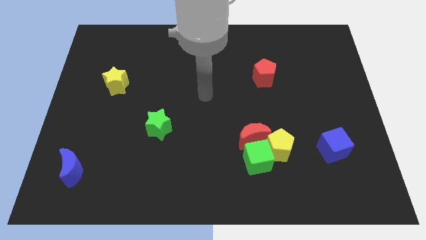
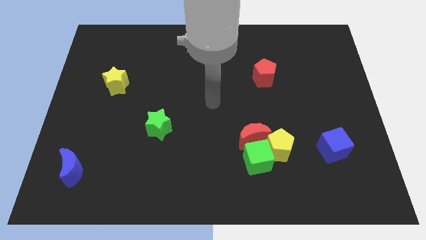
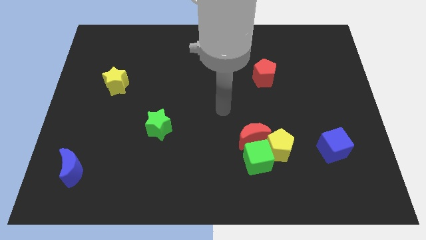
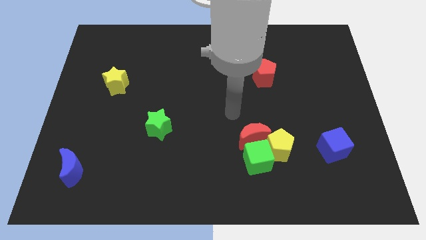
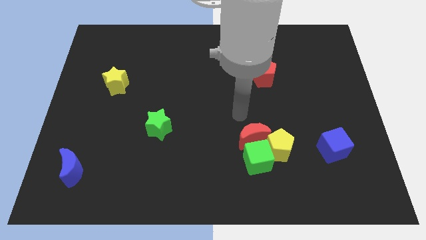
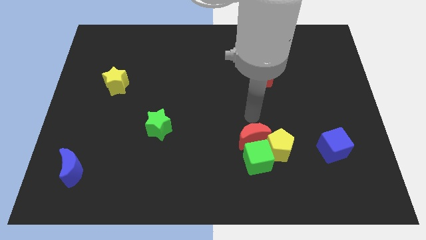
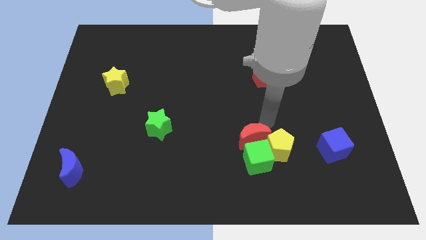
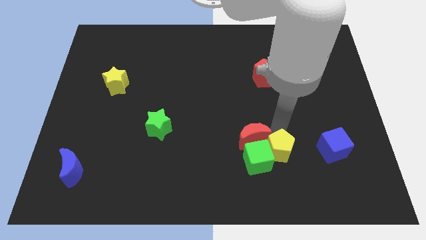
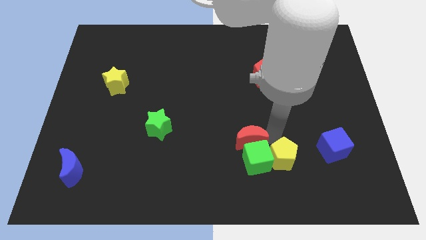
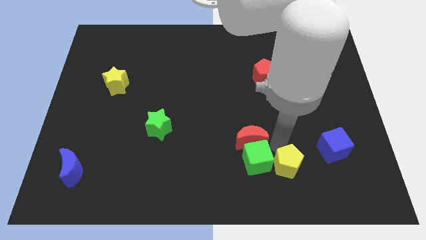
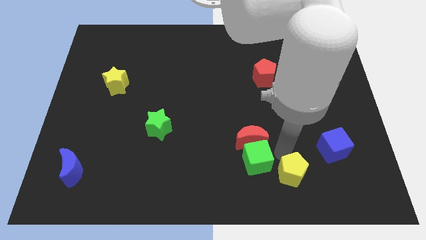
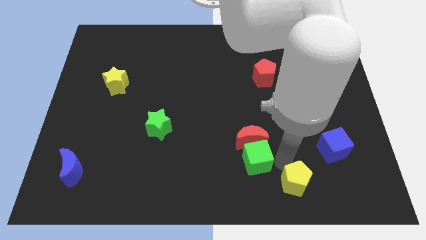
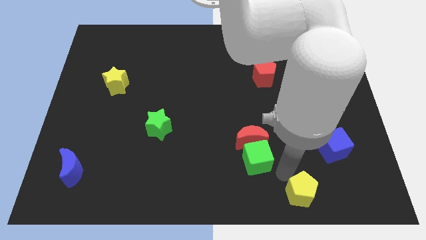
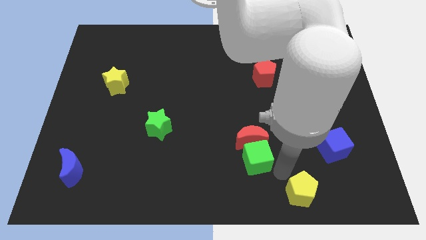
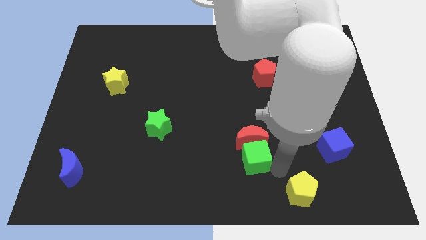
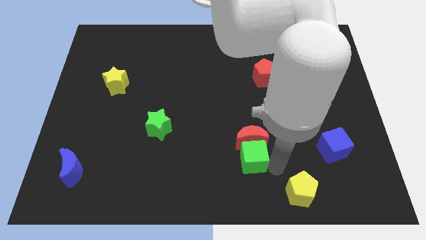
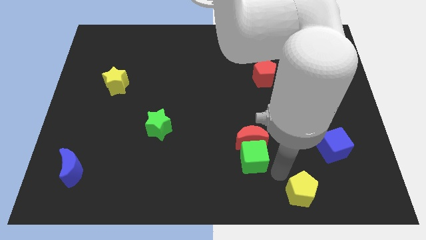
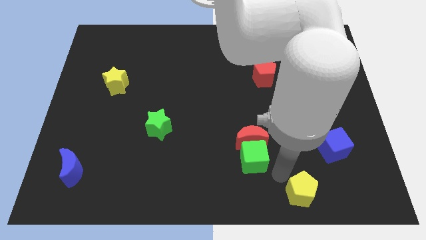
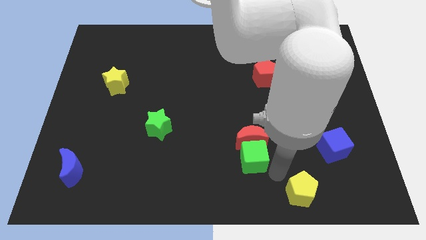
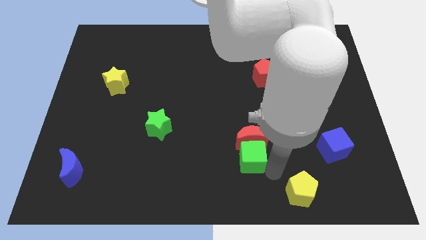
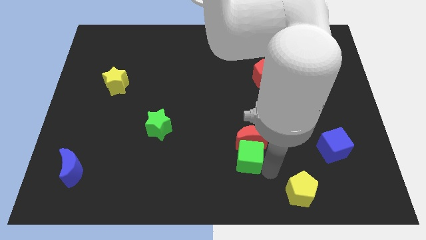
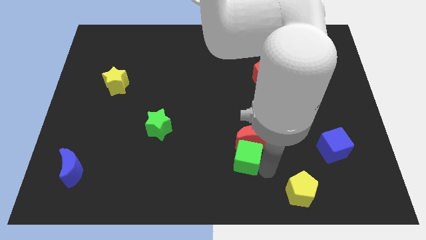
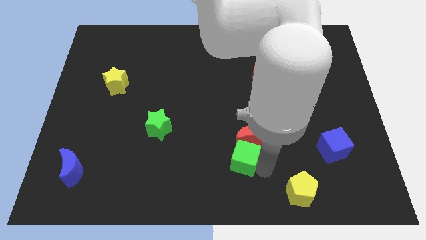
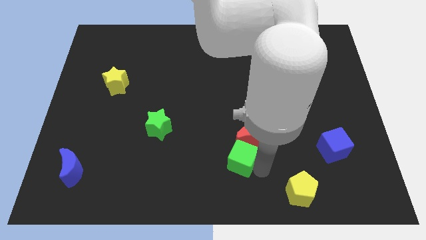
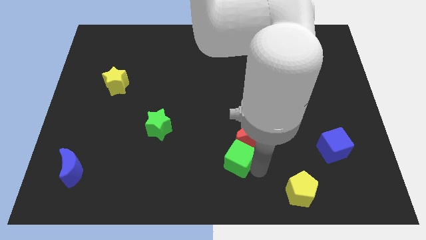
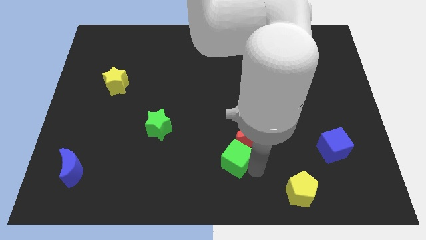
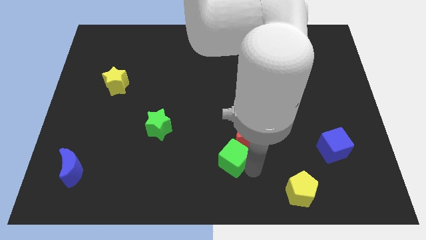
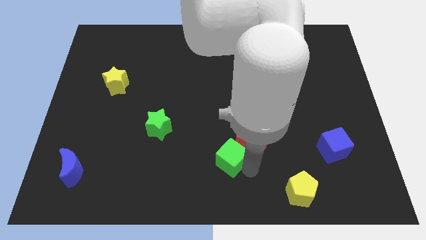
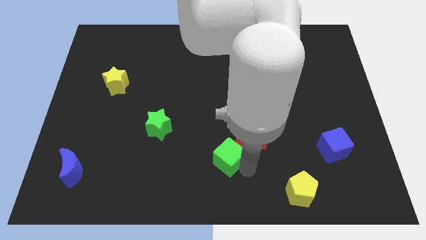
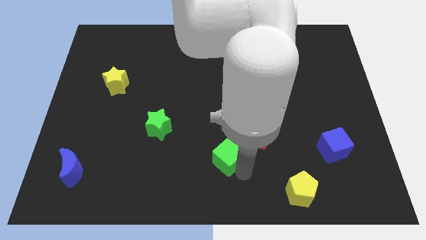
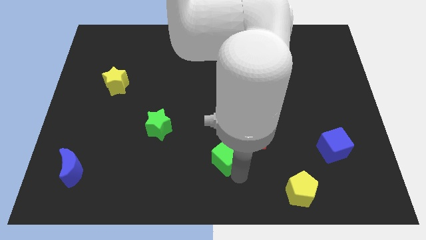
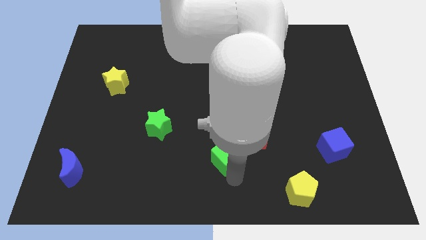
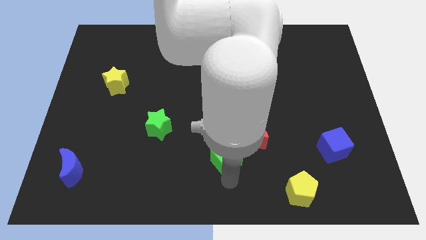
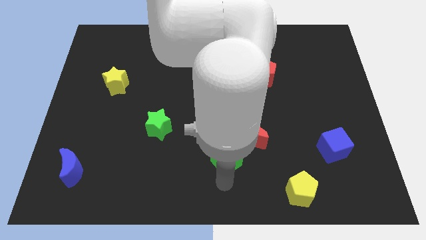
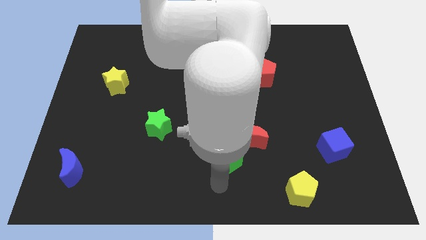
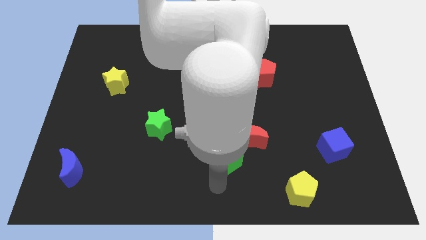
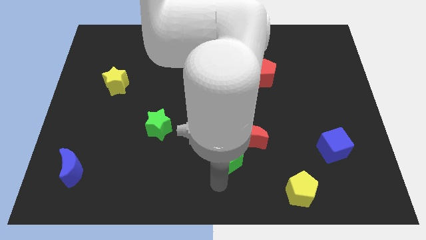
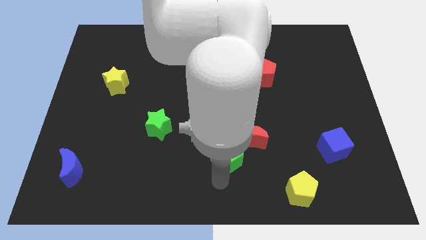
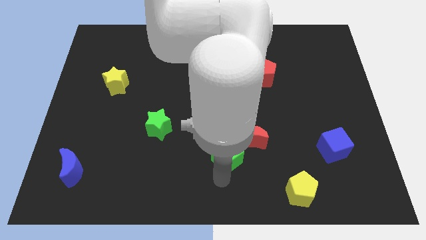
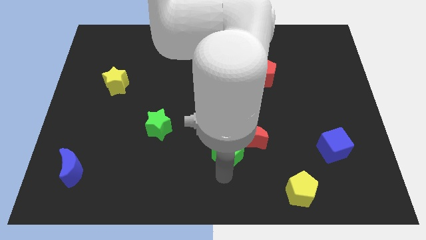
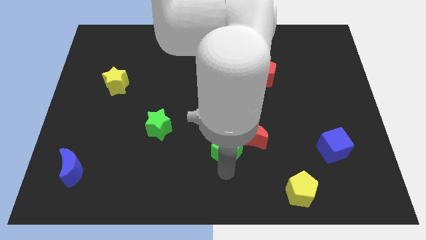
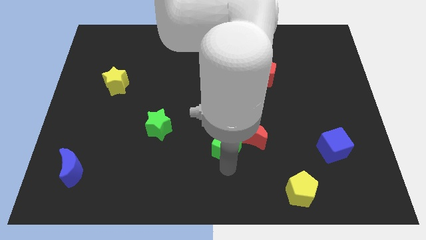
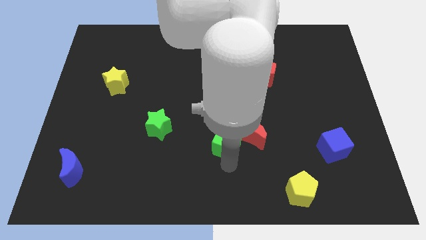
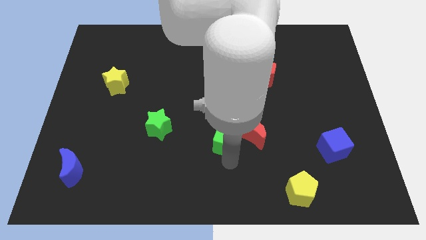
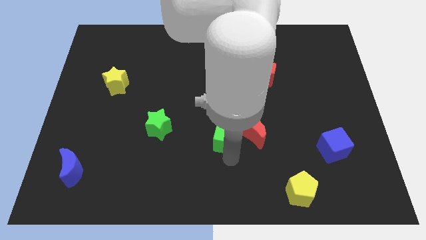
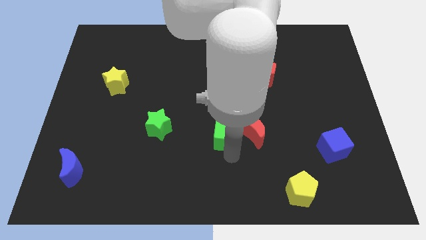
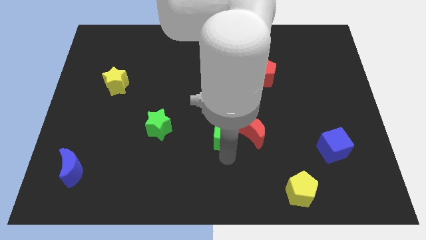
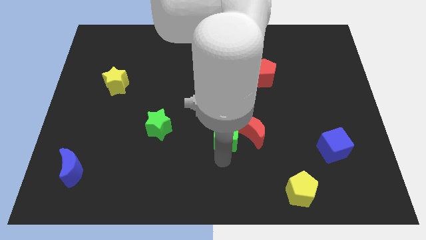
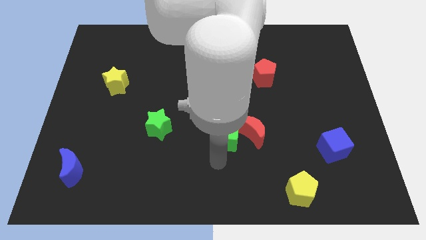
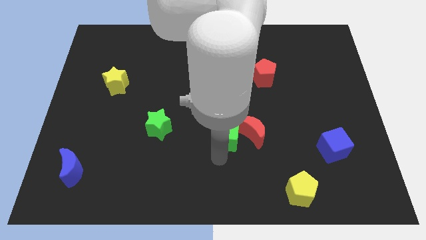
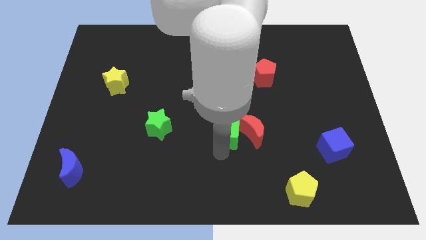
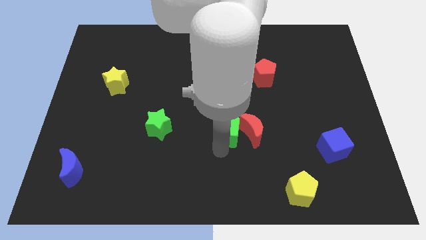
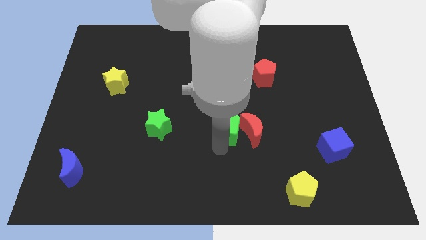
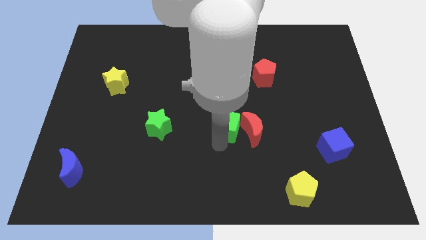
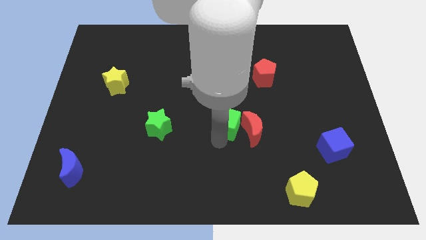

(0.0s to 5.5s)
move the green cube upwards a little

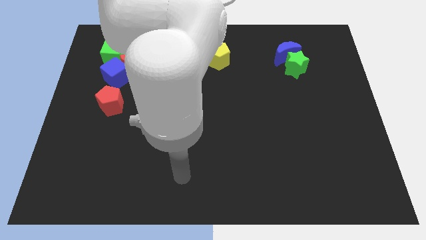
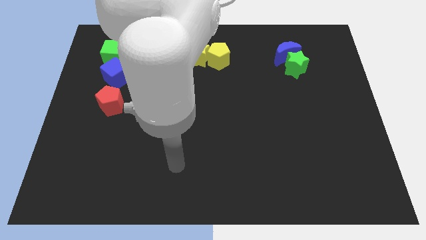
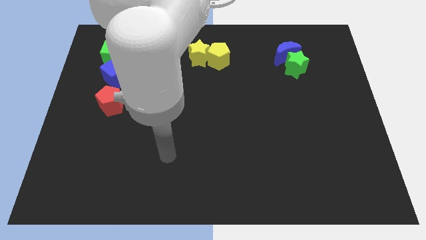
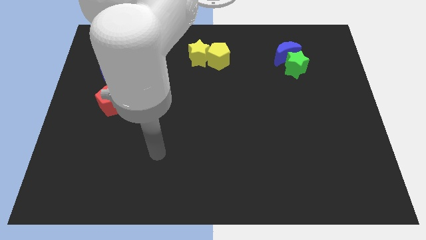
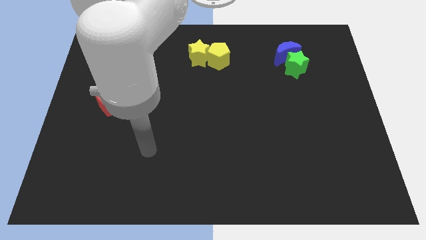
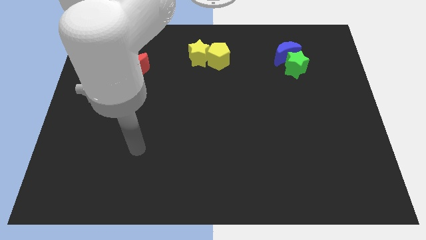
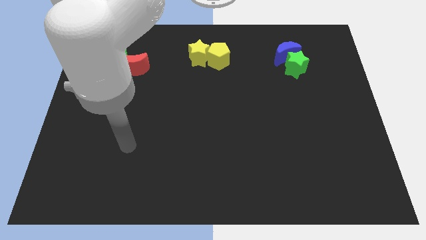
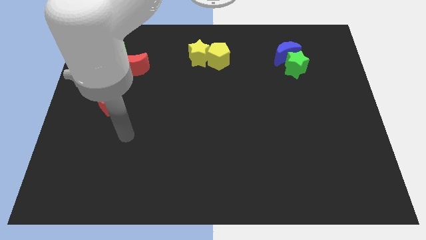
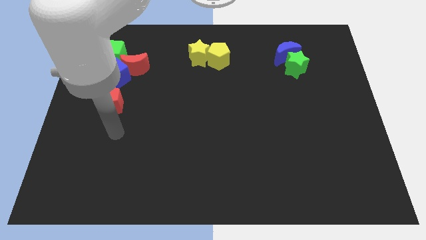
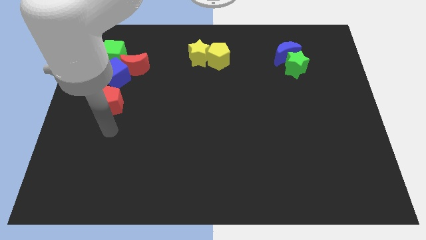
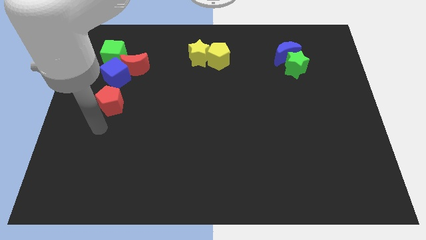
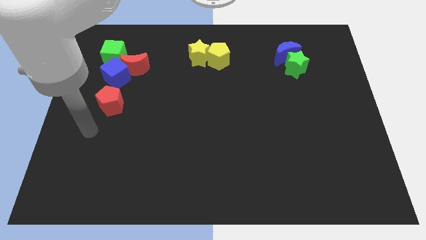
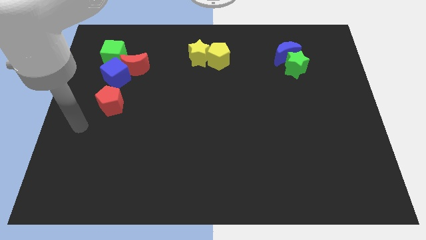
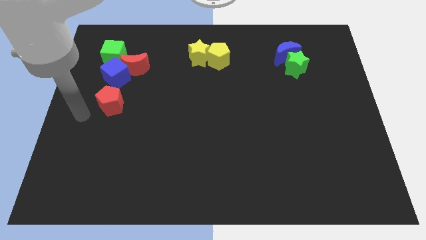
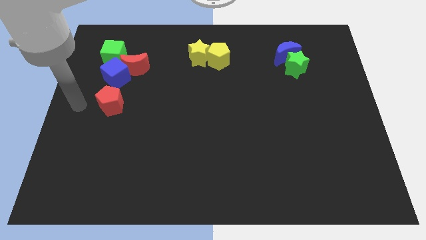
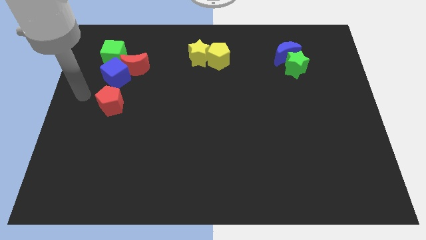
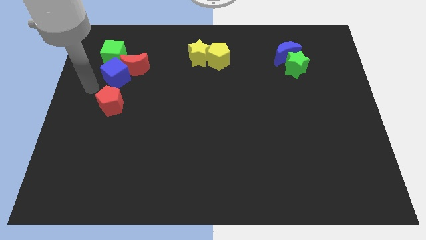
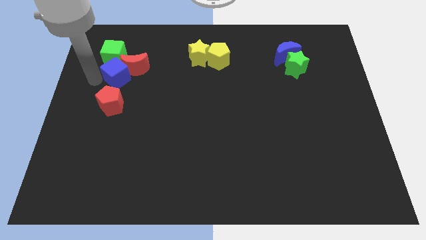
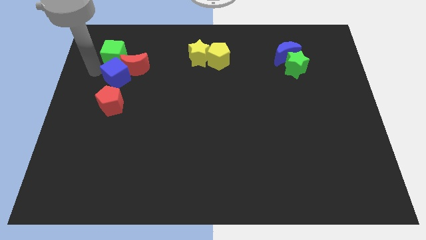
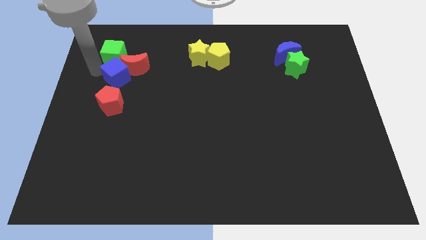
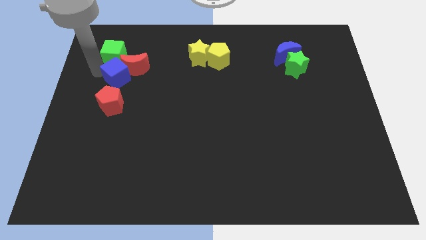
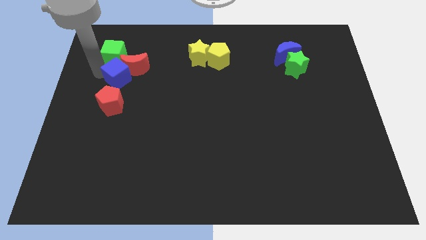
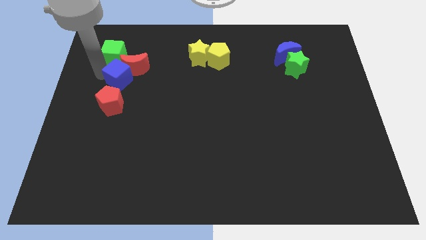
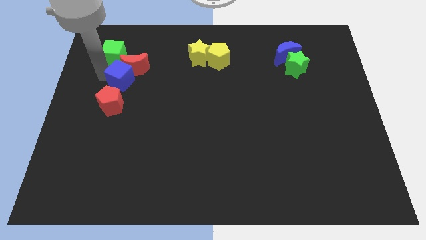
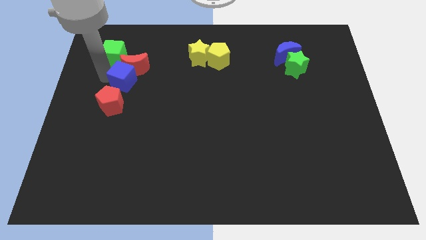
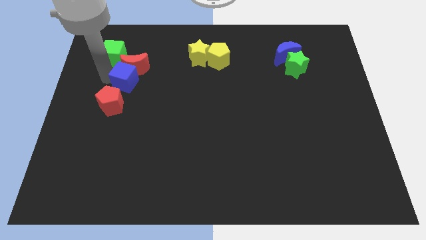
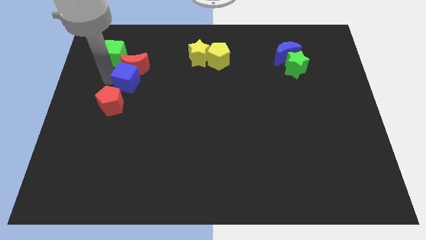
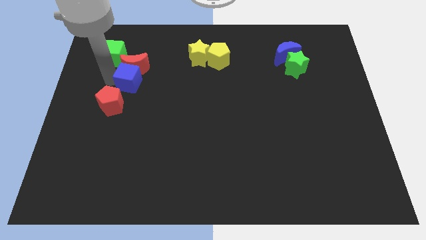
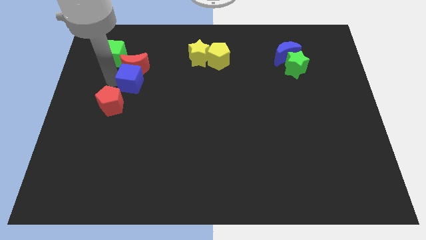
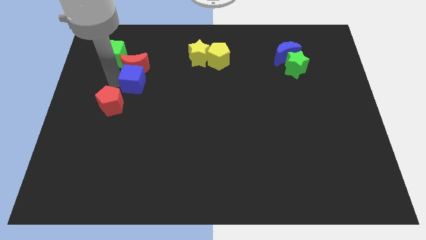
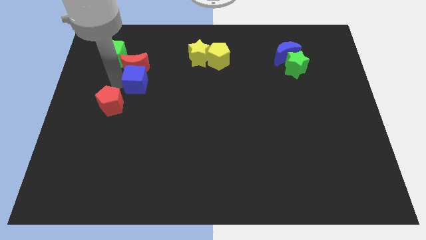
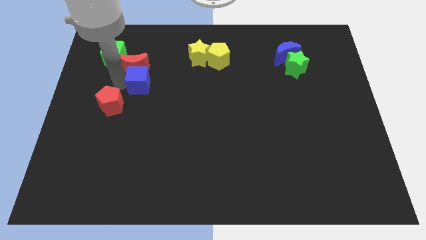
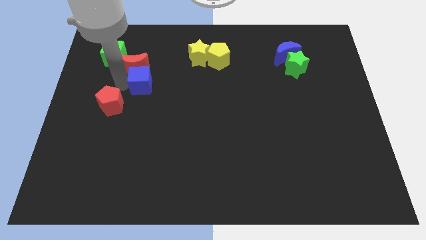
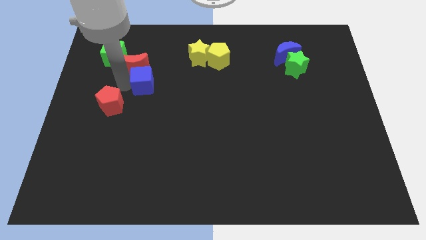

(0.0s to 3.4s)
slightly push the blue cube to the right
